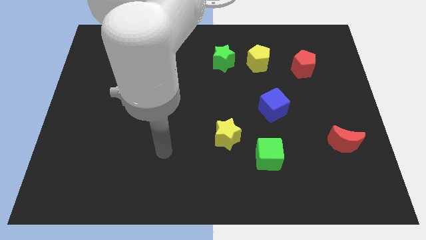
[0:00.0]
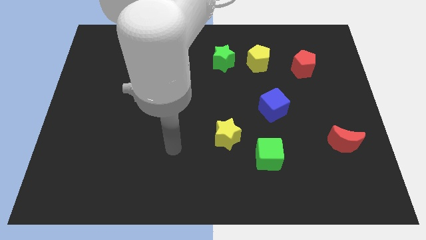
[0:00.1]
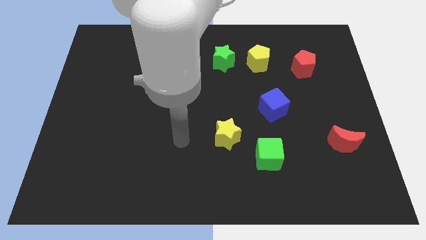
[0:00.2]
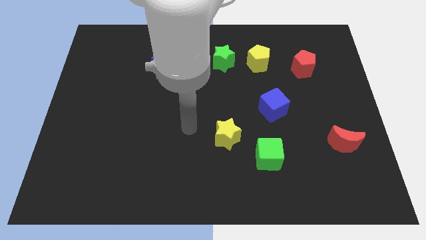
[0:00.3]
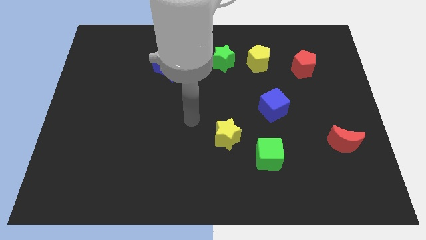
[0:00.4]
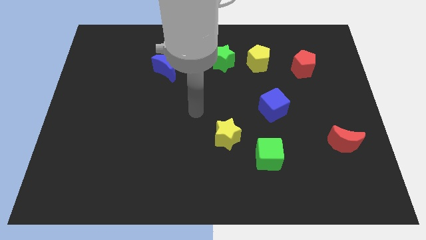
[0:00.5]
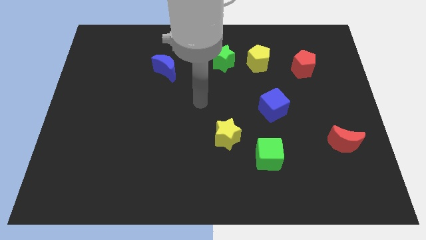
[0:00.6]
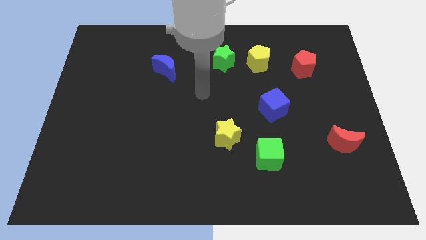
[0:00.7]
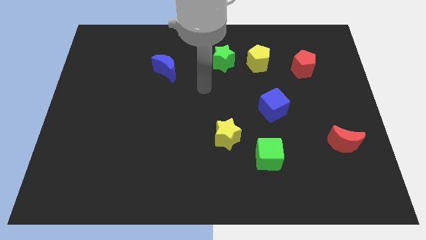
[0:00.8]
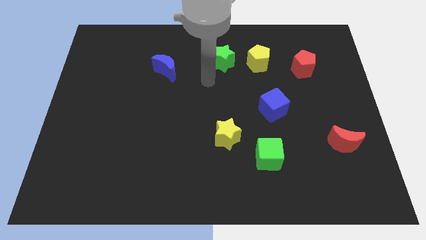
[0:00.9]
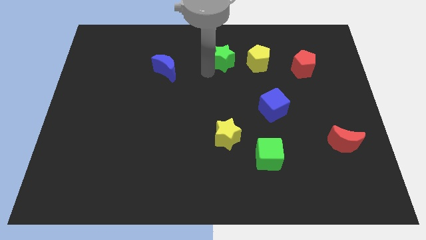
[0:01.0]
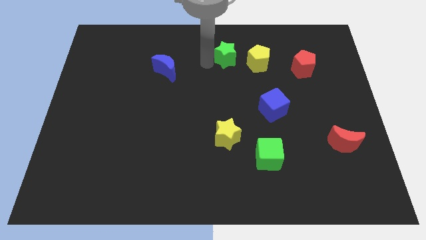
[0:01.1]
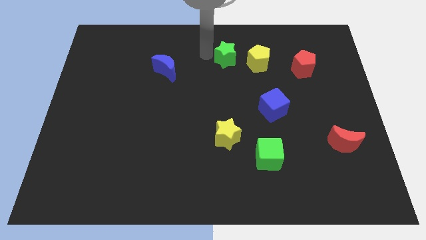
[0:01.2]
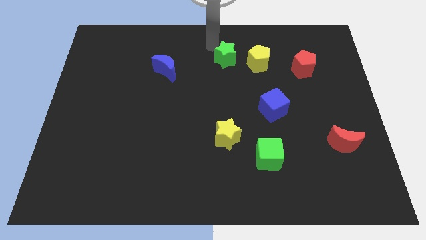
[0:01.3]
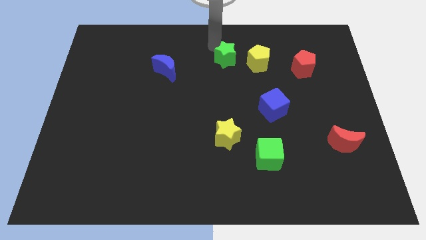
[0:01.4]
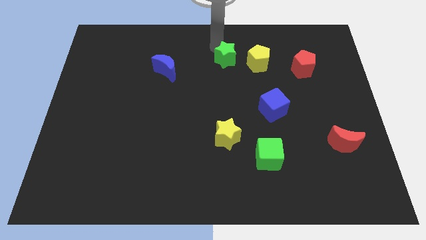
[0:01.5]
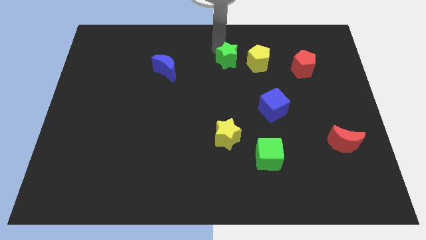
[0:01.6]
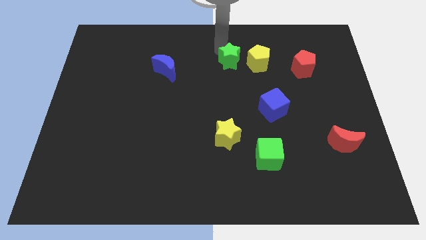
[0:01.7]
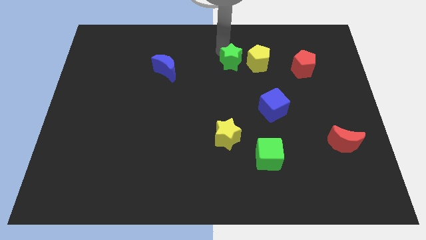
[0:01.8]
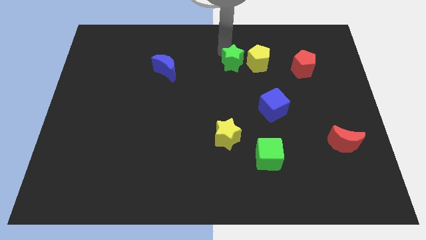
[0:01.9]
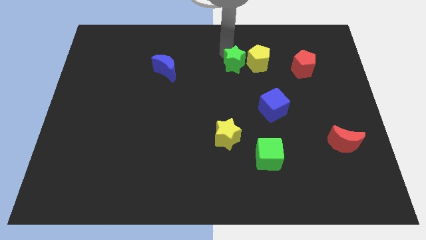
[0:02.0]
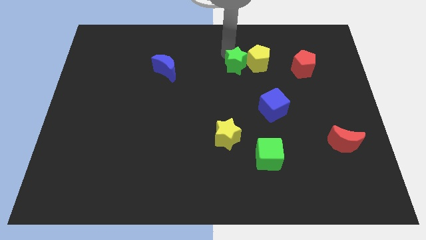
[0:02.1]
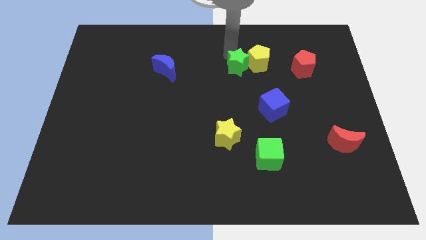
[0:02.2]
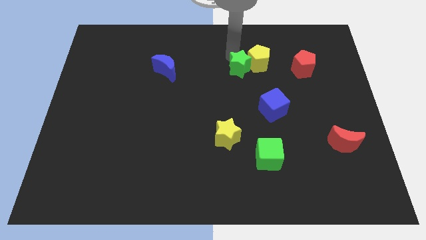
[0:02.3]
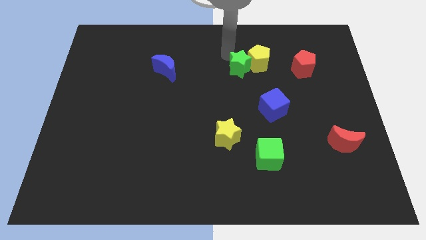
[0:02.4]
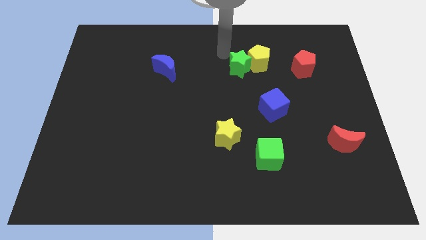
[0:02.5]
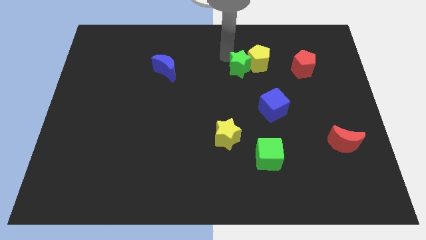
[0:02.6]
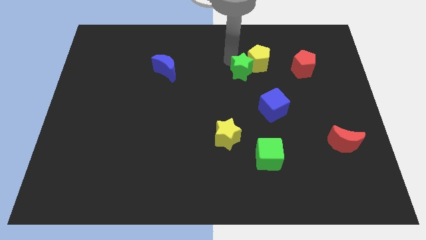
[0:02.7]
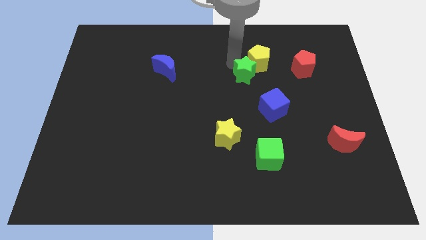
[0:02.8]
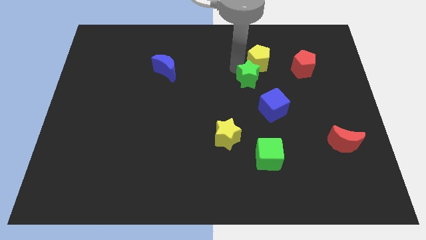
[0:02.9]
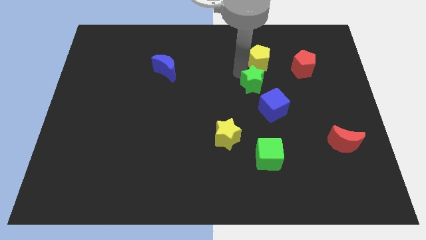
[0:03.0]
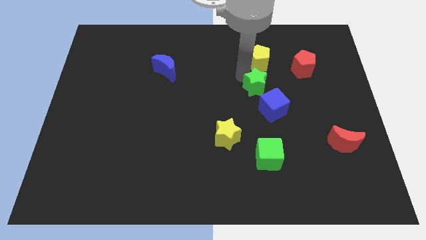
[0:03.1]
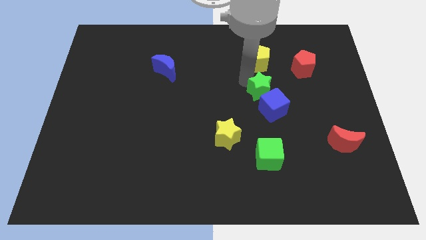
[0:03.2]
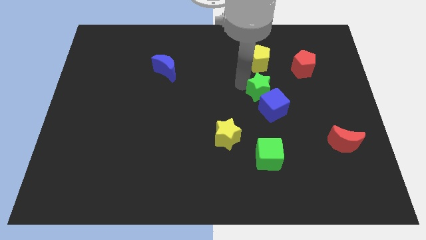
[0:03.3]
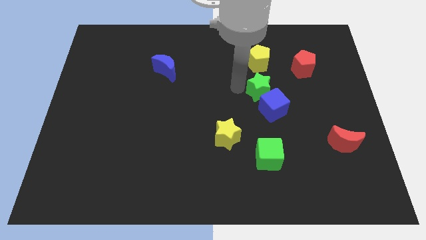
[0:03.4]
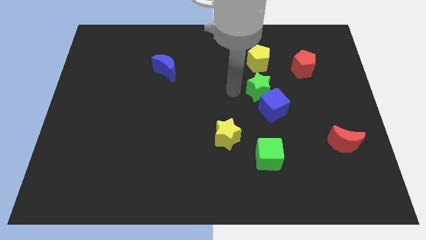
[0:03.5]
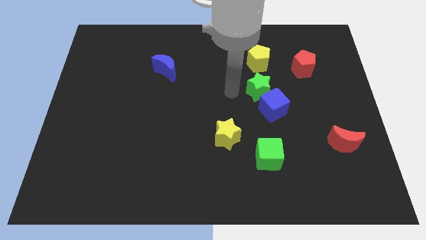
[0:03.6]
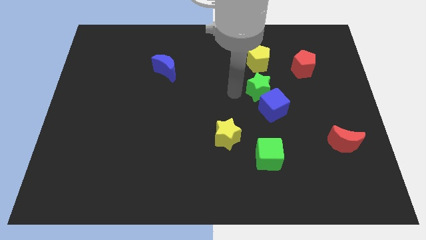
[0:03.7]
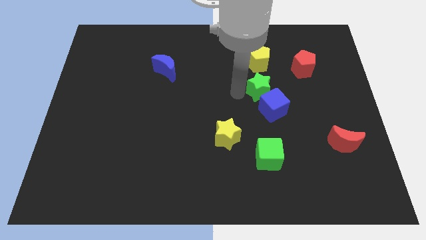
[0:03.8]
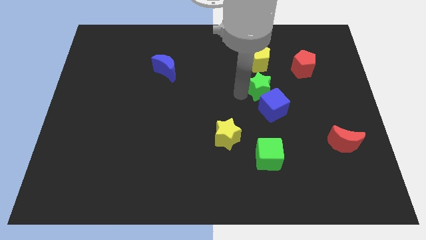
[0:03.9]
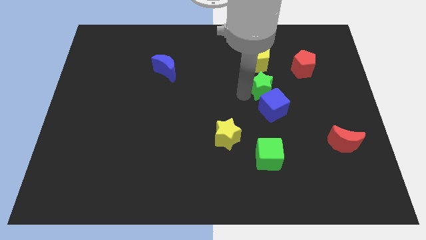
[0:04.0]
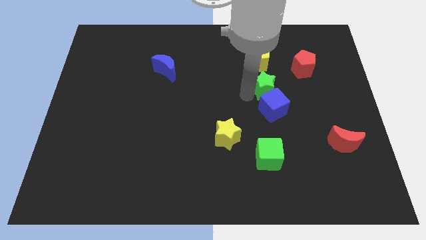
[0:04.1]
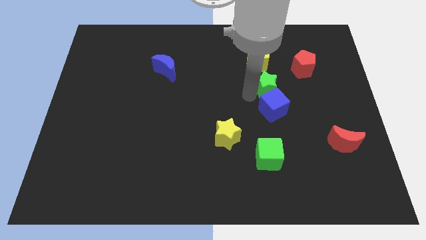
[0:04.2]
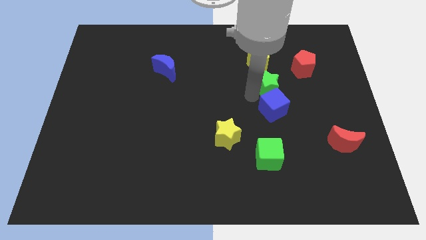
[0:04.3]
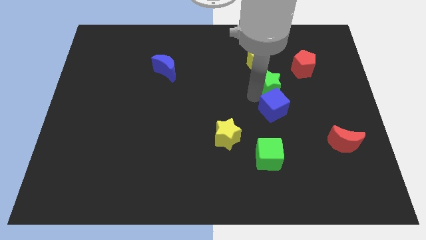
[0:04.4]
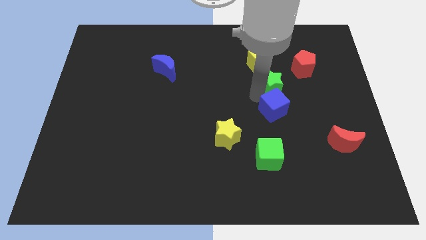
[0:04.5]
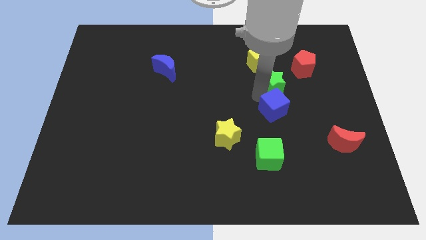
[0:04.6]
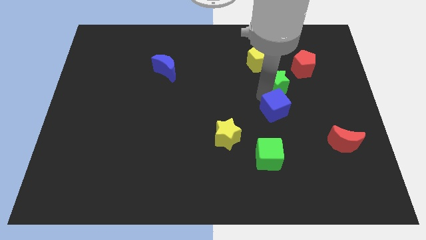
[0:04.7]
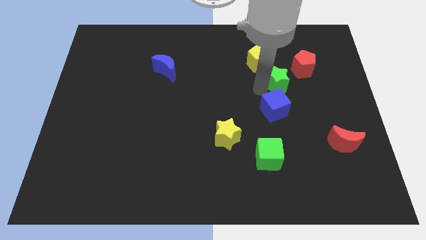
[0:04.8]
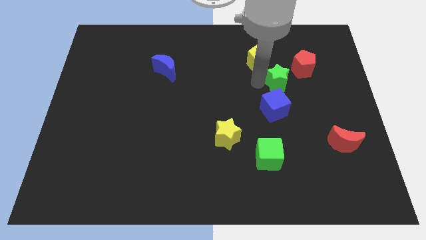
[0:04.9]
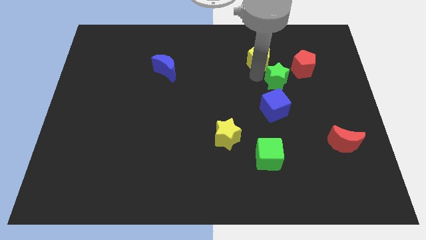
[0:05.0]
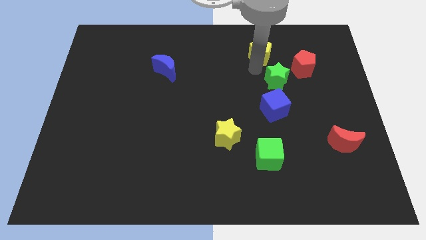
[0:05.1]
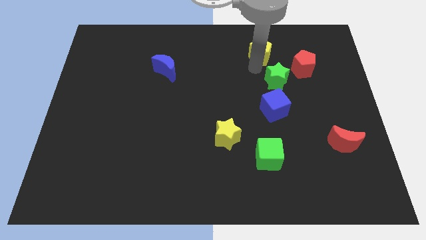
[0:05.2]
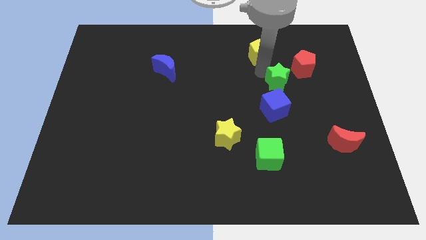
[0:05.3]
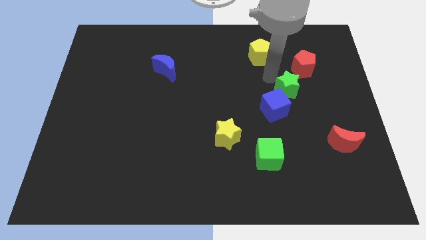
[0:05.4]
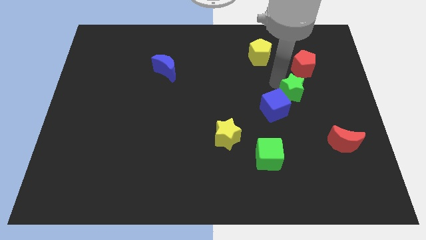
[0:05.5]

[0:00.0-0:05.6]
push the green star to the right side of the blue cube

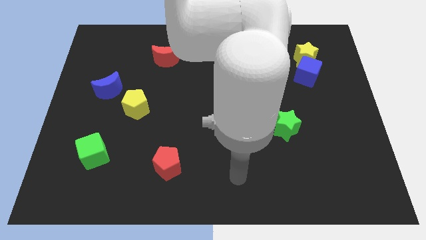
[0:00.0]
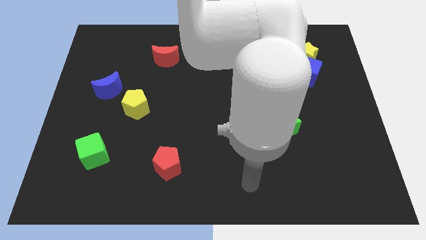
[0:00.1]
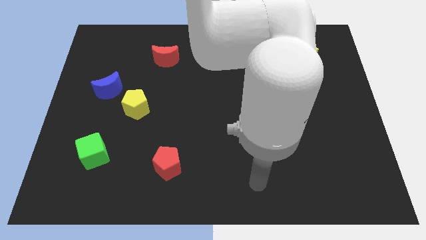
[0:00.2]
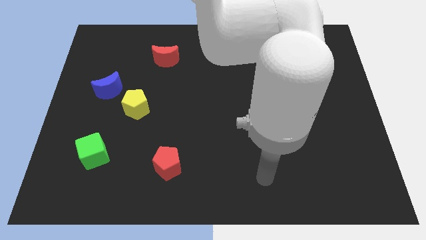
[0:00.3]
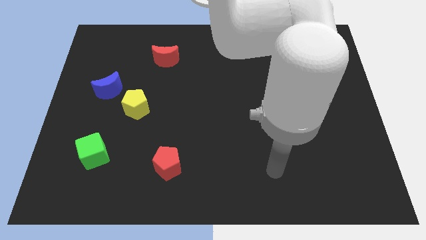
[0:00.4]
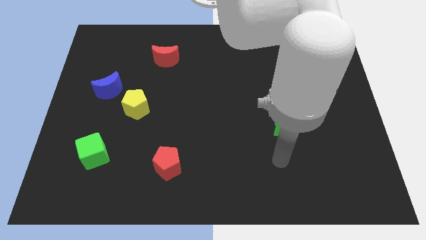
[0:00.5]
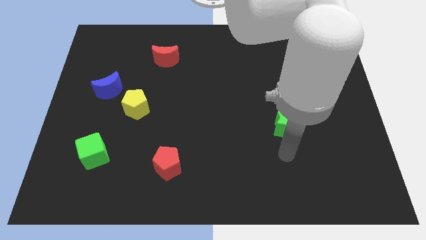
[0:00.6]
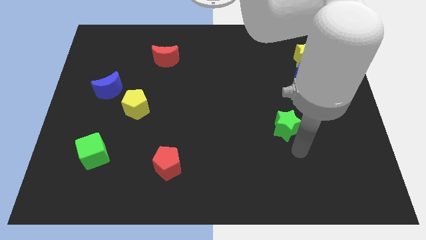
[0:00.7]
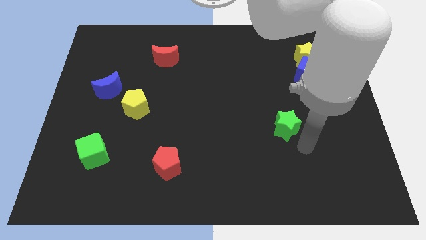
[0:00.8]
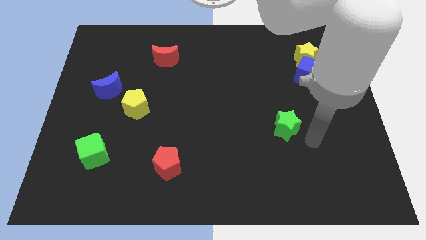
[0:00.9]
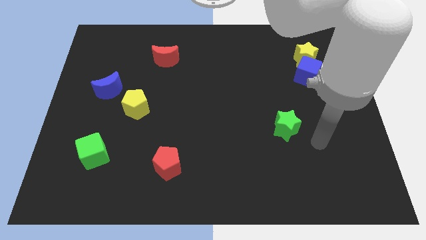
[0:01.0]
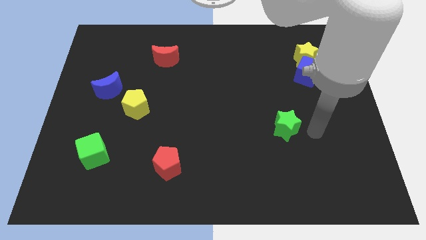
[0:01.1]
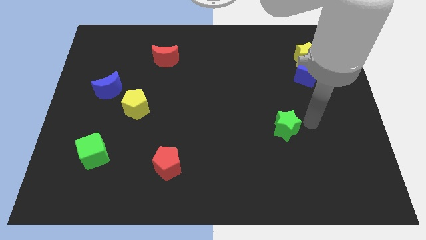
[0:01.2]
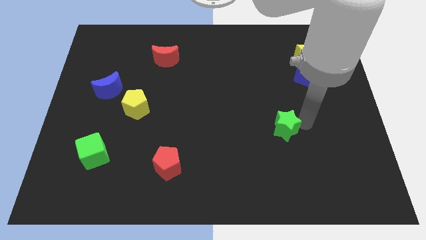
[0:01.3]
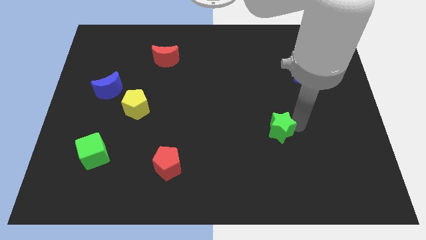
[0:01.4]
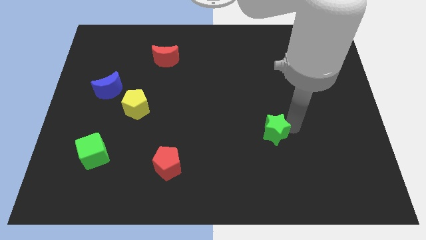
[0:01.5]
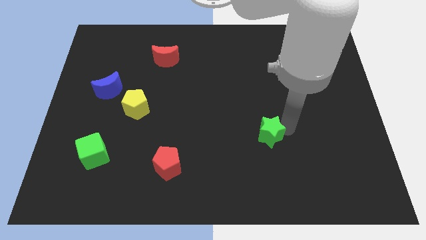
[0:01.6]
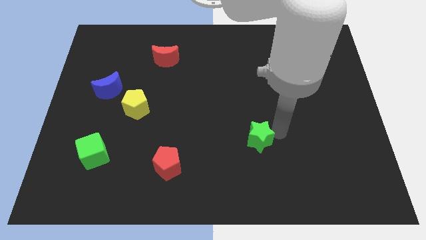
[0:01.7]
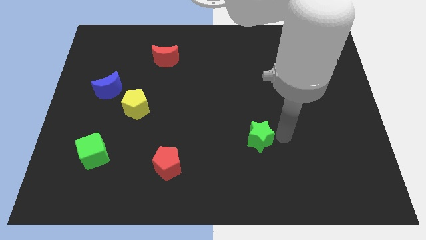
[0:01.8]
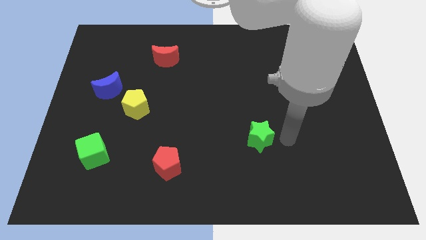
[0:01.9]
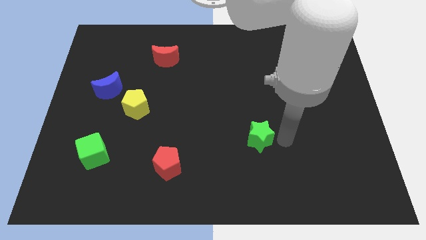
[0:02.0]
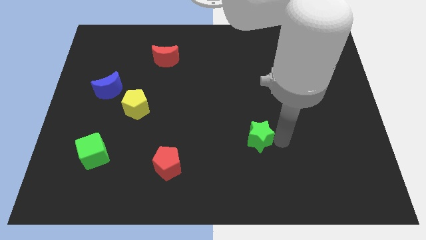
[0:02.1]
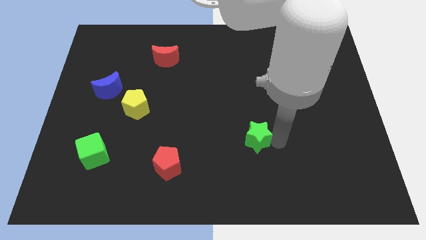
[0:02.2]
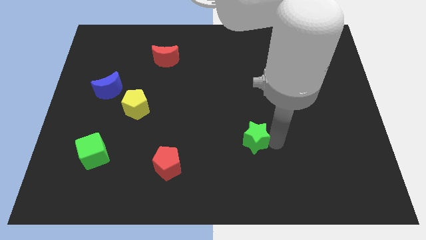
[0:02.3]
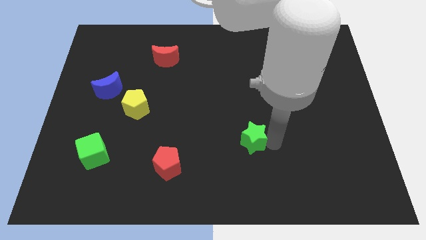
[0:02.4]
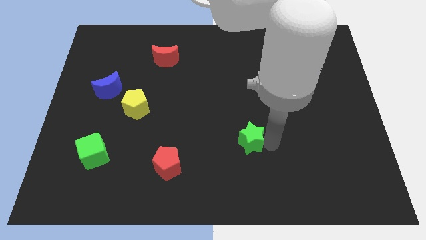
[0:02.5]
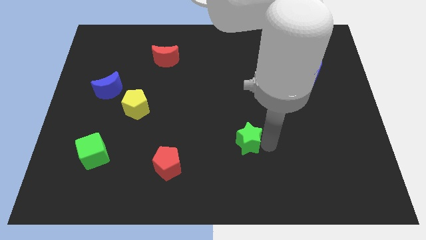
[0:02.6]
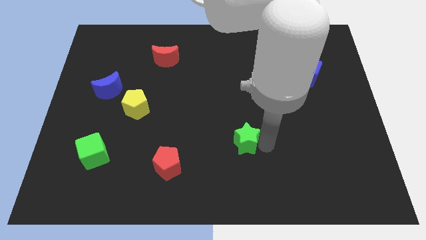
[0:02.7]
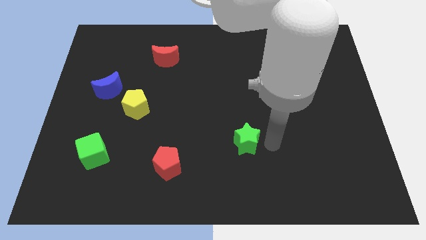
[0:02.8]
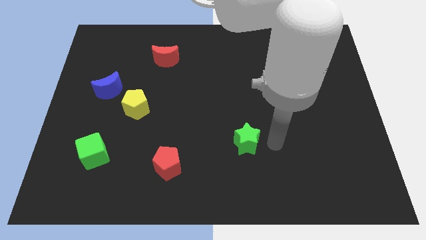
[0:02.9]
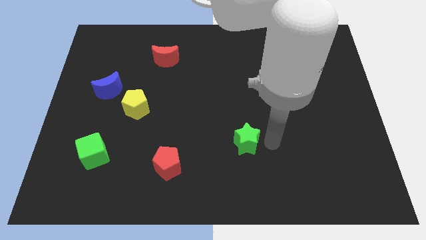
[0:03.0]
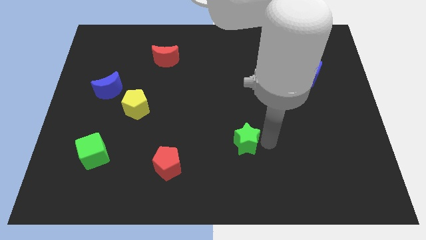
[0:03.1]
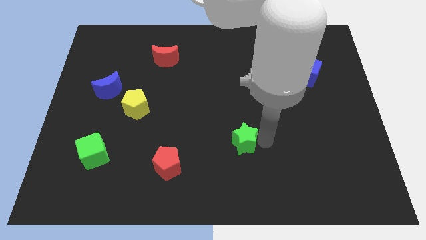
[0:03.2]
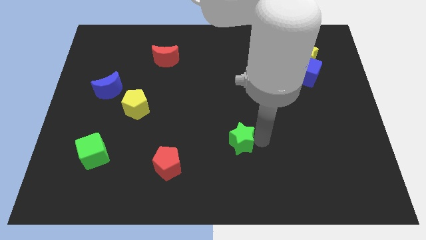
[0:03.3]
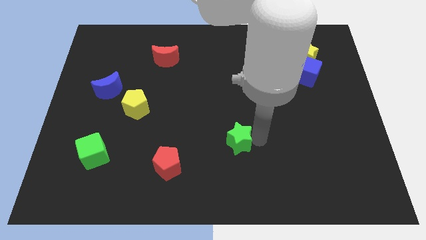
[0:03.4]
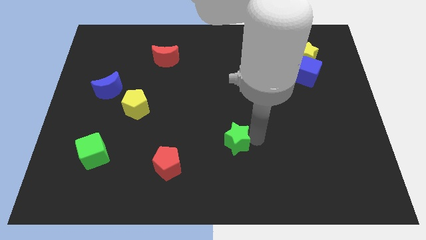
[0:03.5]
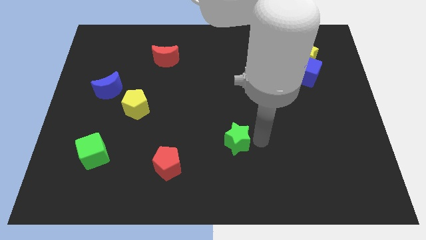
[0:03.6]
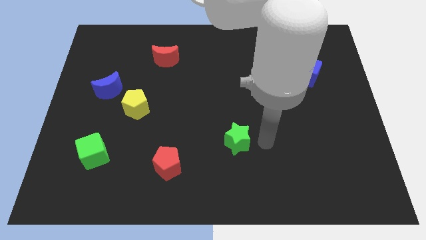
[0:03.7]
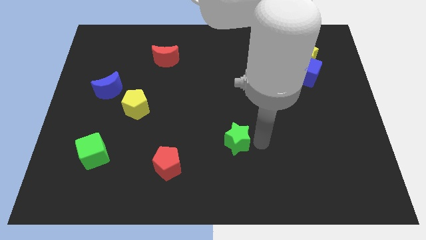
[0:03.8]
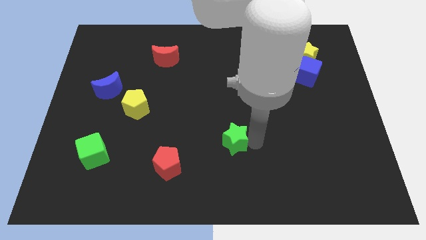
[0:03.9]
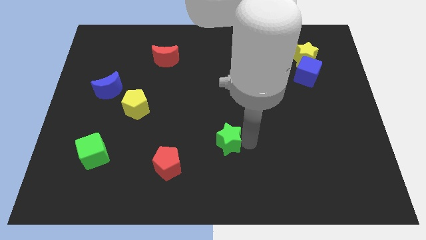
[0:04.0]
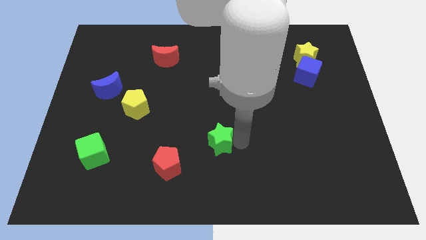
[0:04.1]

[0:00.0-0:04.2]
push the green star to the top right of the red pentagon
